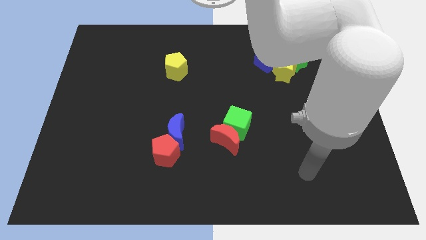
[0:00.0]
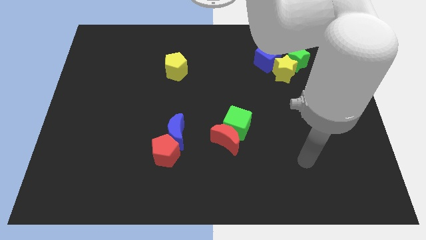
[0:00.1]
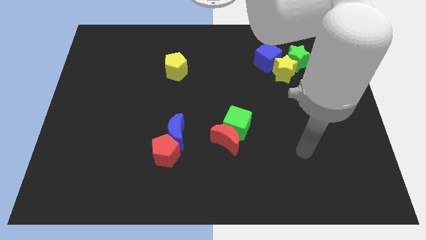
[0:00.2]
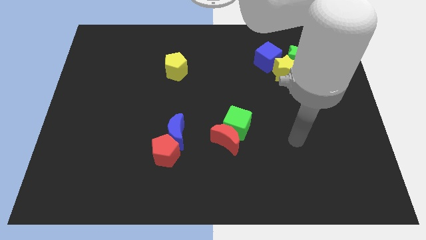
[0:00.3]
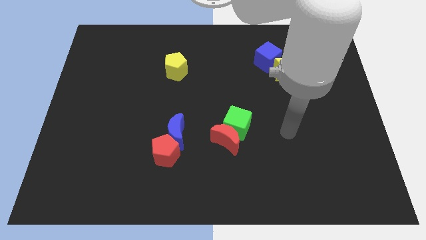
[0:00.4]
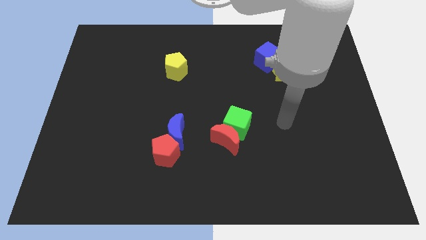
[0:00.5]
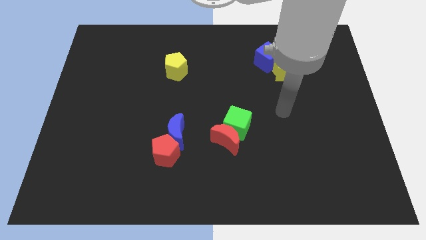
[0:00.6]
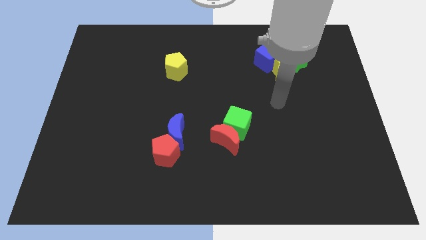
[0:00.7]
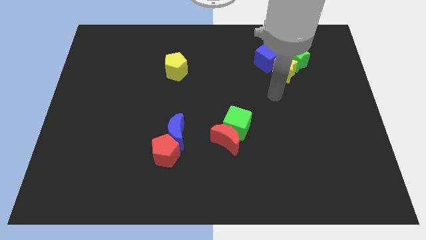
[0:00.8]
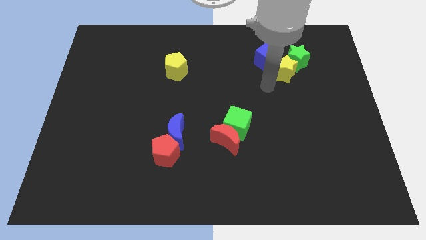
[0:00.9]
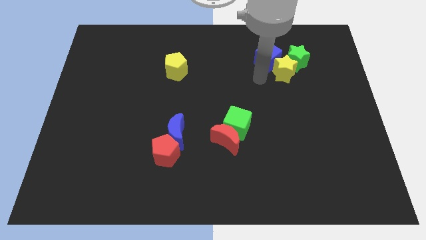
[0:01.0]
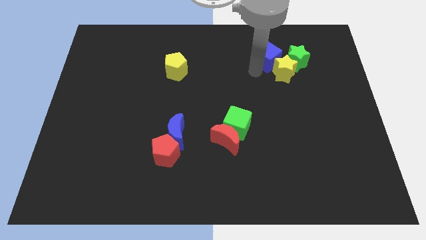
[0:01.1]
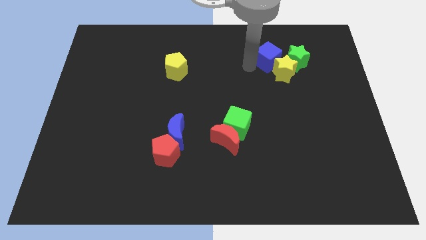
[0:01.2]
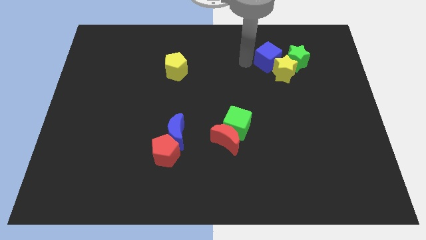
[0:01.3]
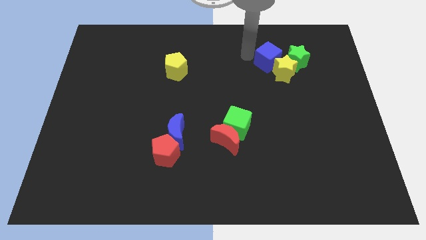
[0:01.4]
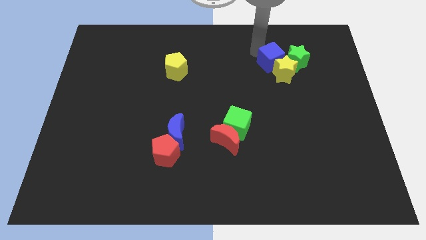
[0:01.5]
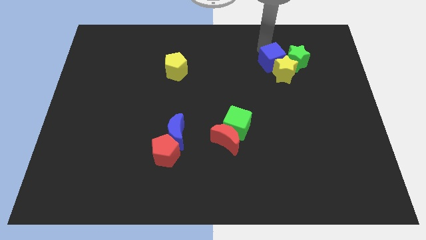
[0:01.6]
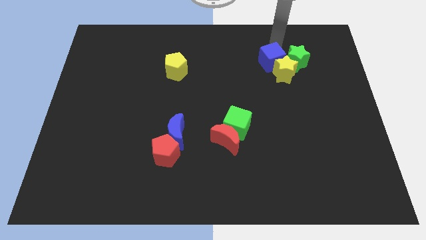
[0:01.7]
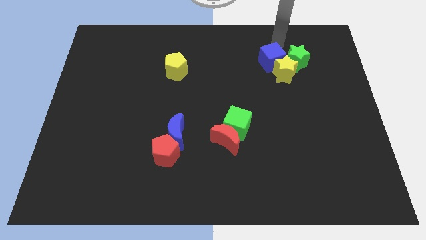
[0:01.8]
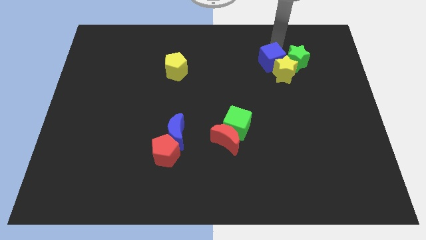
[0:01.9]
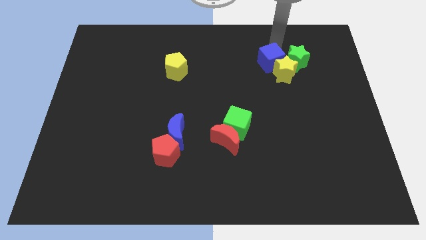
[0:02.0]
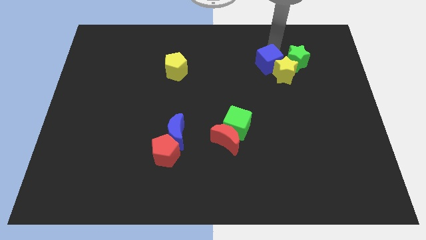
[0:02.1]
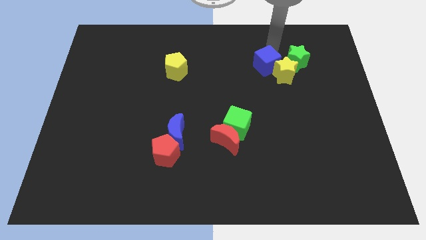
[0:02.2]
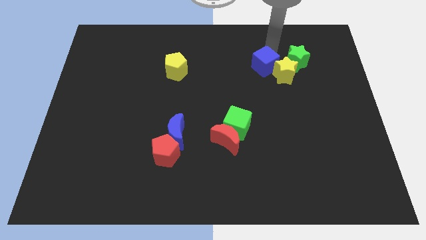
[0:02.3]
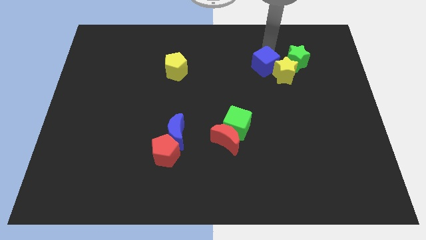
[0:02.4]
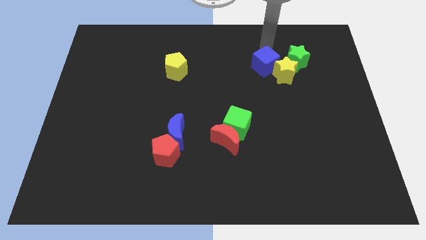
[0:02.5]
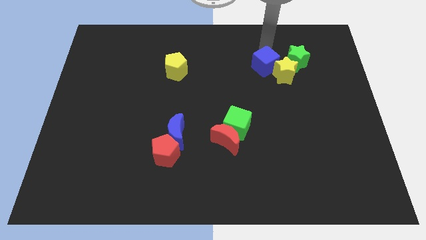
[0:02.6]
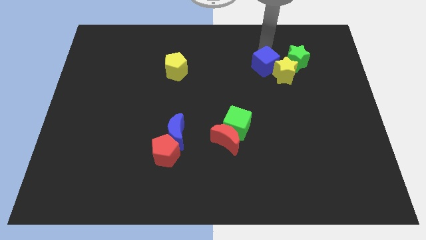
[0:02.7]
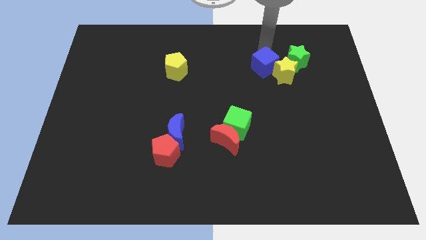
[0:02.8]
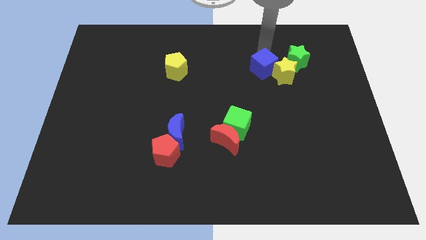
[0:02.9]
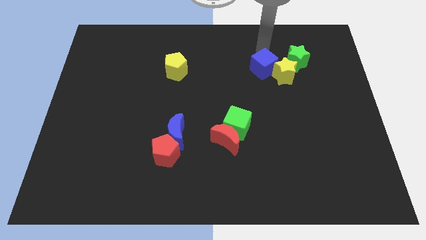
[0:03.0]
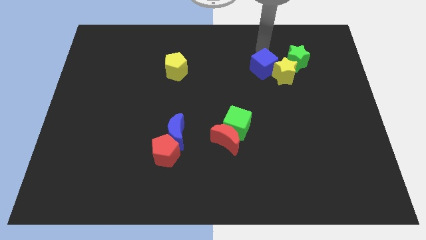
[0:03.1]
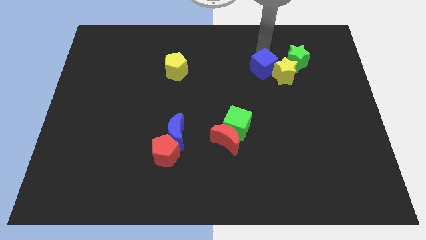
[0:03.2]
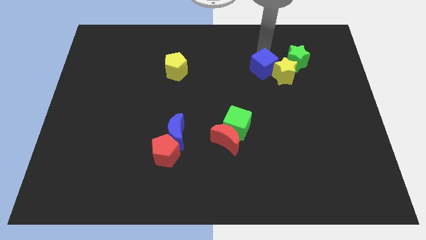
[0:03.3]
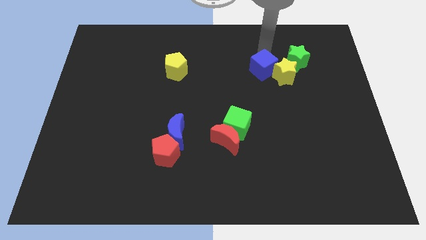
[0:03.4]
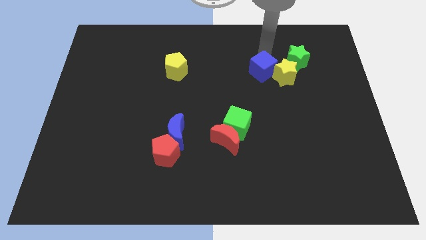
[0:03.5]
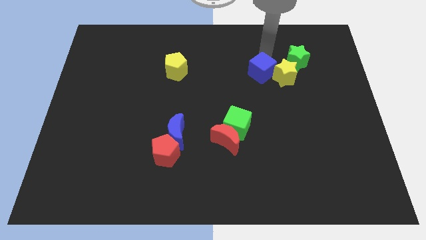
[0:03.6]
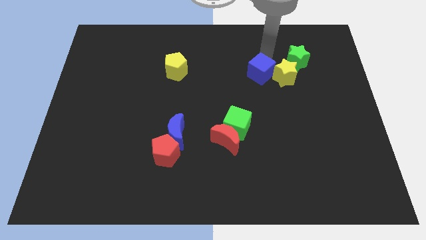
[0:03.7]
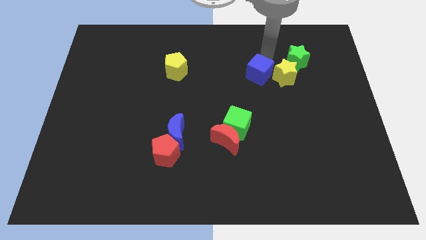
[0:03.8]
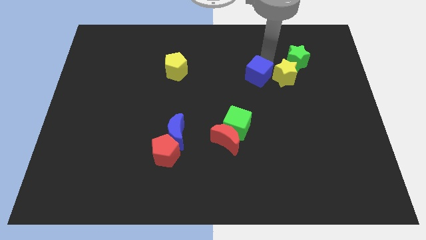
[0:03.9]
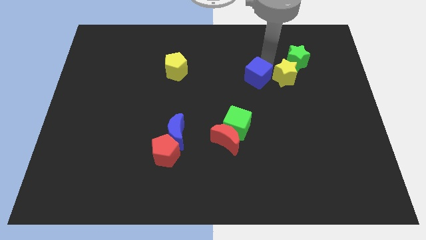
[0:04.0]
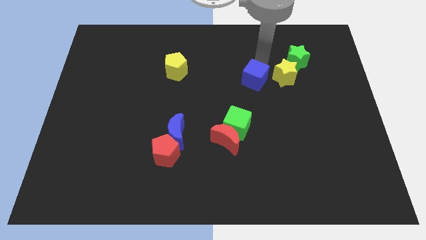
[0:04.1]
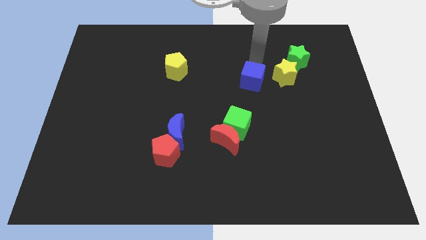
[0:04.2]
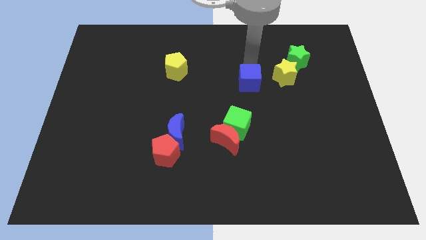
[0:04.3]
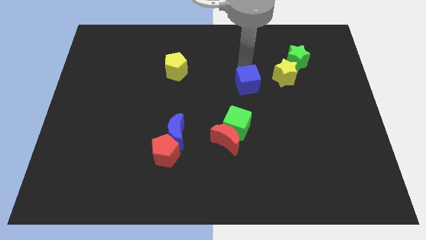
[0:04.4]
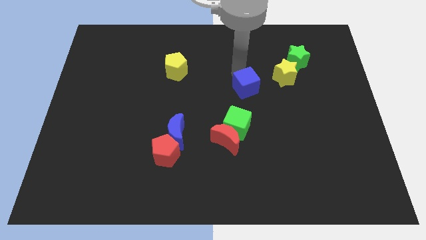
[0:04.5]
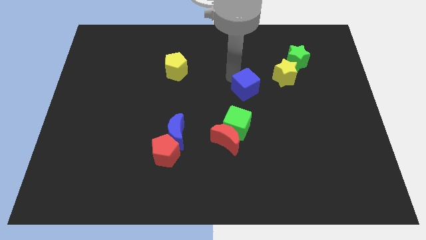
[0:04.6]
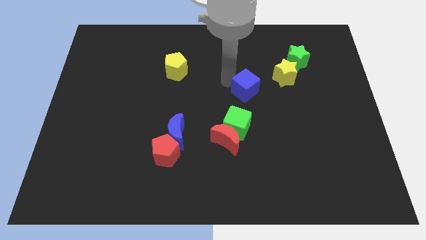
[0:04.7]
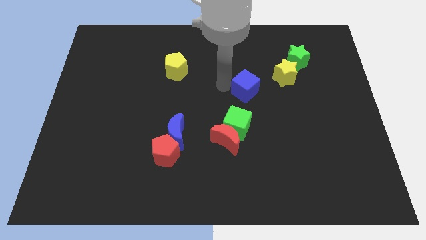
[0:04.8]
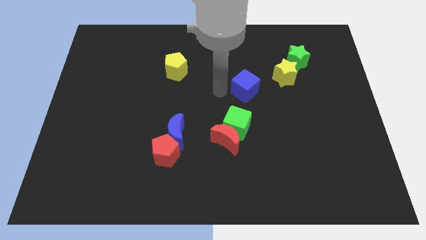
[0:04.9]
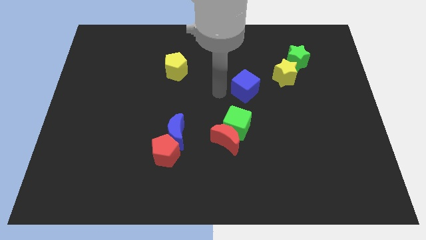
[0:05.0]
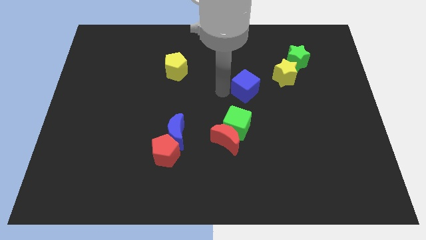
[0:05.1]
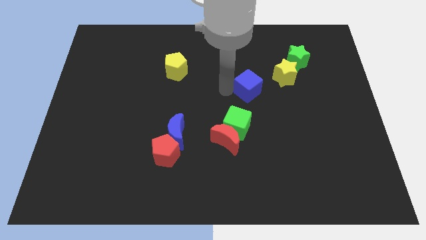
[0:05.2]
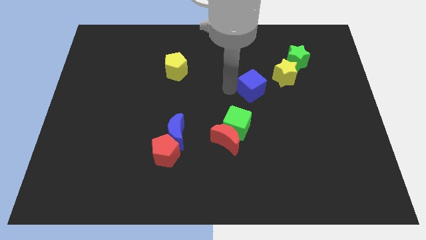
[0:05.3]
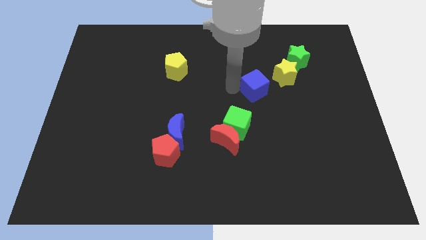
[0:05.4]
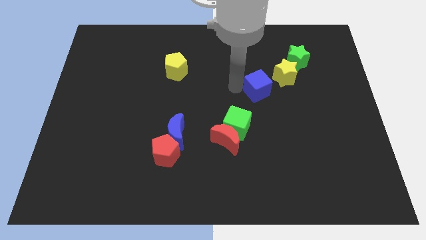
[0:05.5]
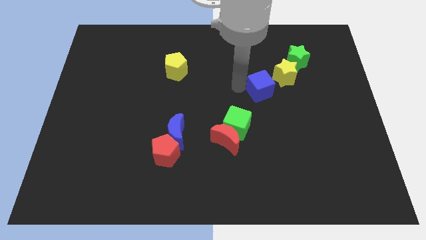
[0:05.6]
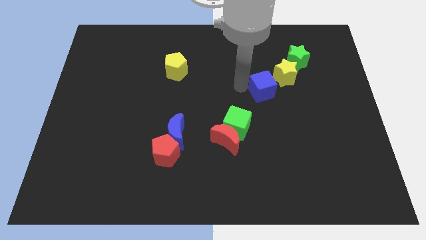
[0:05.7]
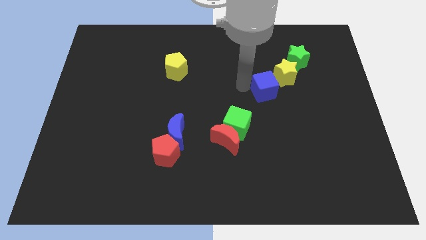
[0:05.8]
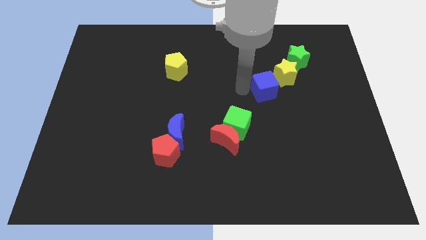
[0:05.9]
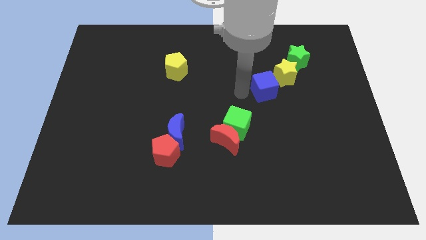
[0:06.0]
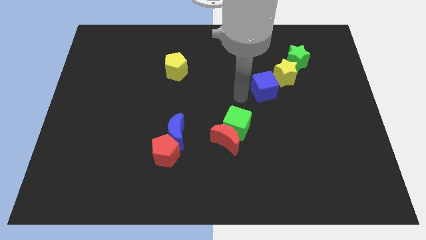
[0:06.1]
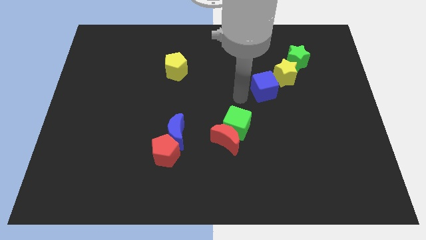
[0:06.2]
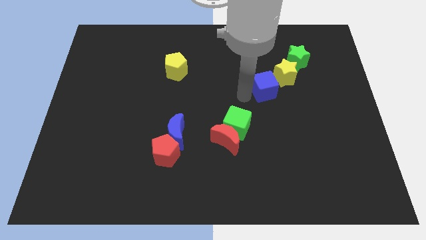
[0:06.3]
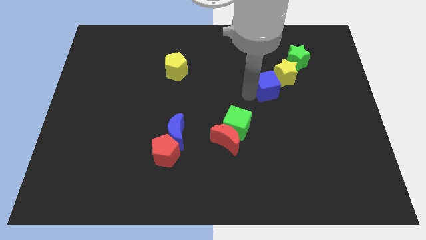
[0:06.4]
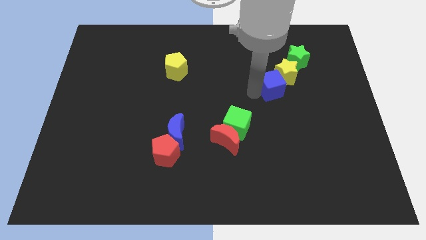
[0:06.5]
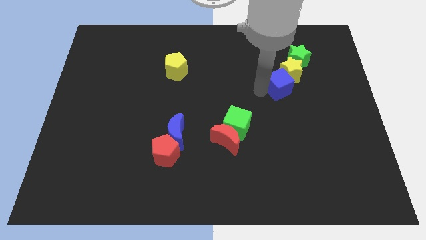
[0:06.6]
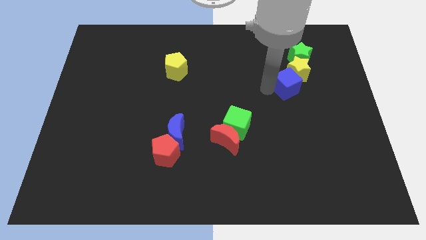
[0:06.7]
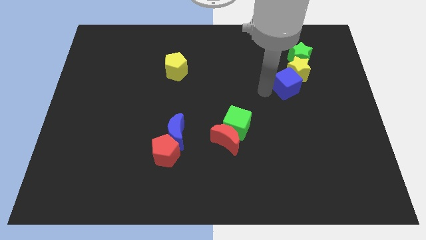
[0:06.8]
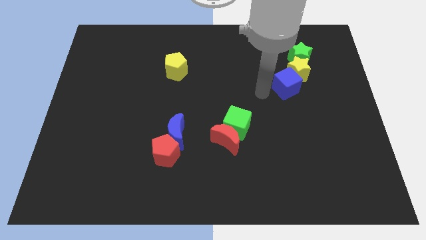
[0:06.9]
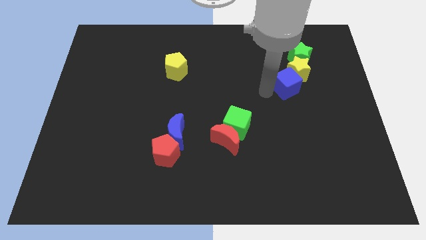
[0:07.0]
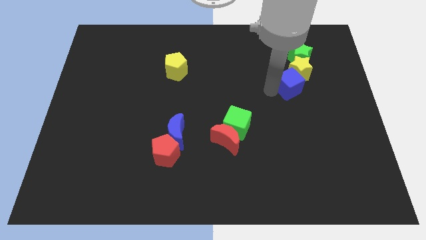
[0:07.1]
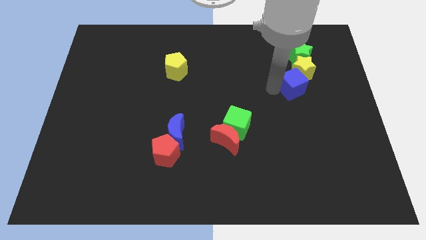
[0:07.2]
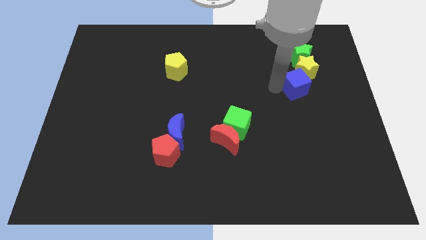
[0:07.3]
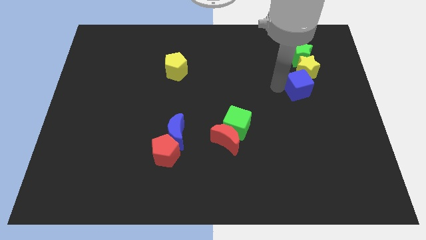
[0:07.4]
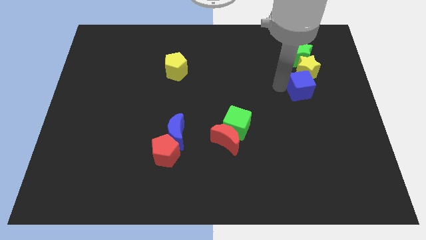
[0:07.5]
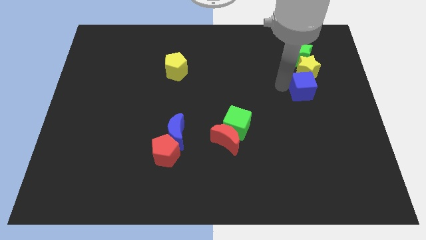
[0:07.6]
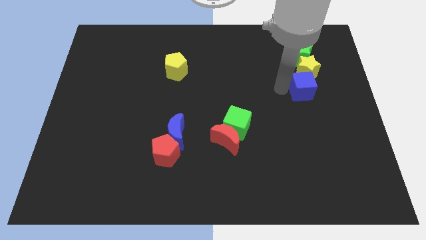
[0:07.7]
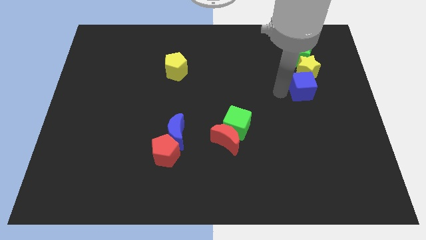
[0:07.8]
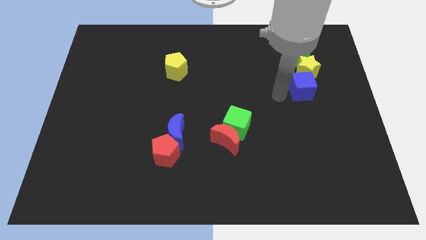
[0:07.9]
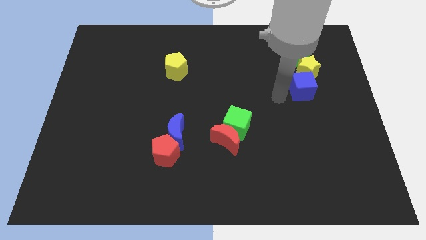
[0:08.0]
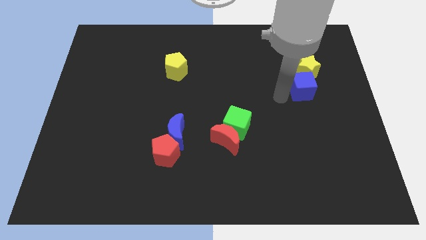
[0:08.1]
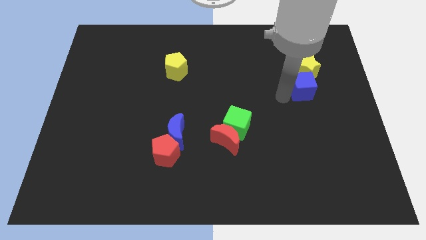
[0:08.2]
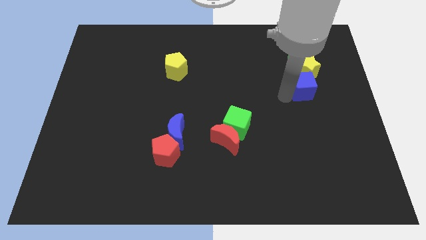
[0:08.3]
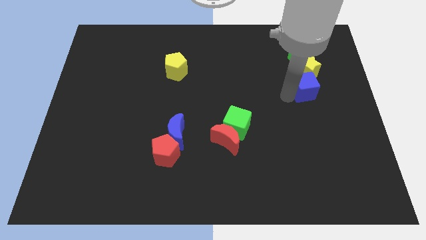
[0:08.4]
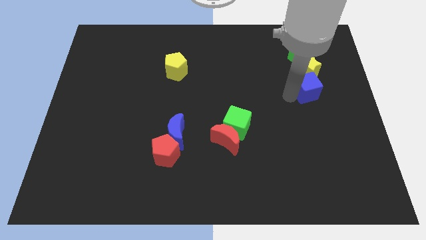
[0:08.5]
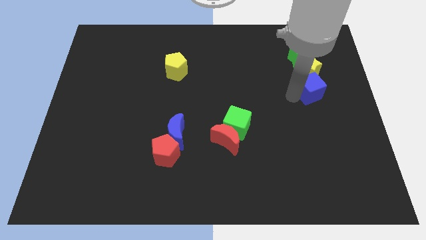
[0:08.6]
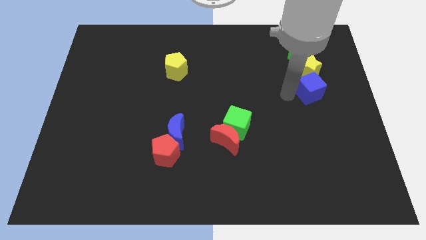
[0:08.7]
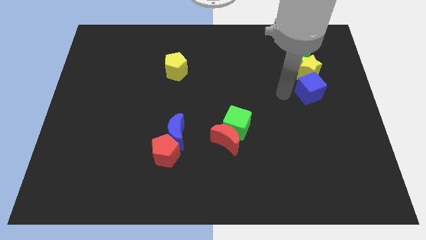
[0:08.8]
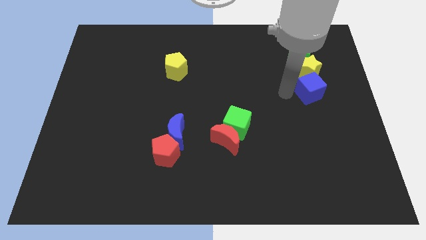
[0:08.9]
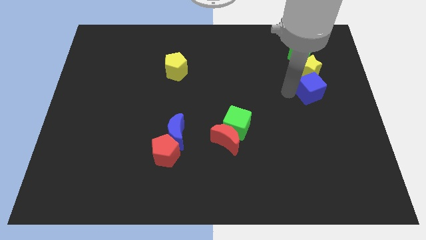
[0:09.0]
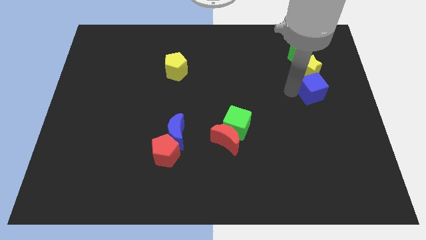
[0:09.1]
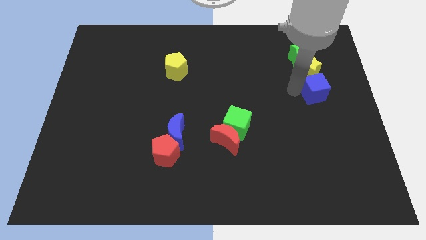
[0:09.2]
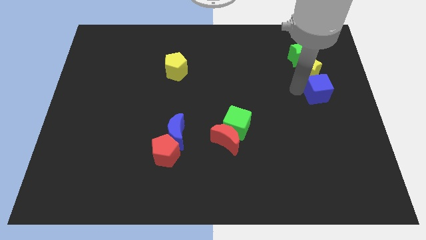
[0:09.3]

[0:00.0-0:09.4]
slide the blue cube to the right side of the board
